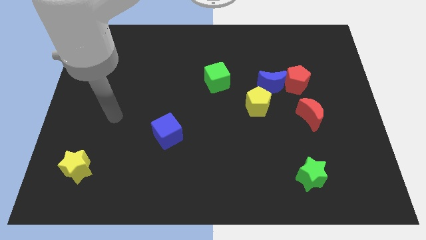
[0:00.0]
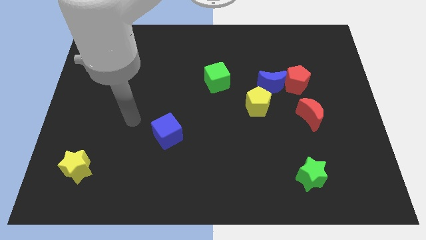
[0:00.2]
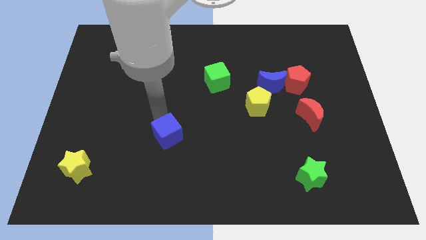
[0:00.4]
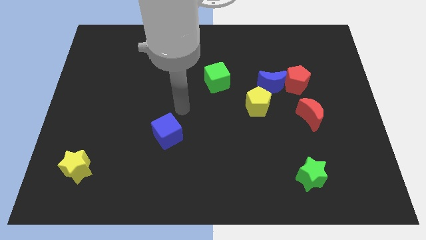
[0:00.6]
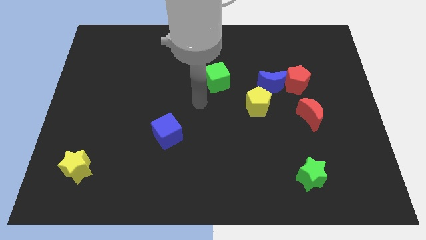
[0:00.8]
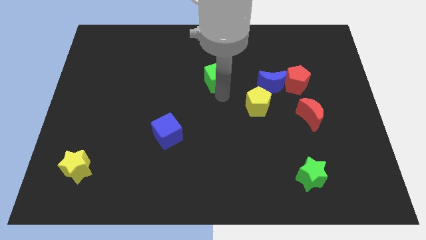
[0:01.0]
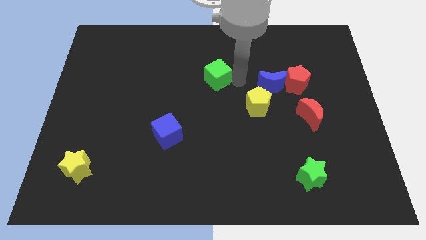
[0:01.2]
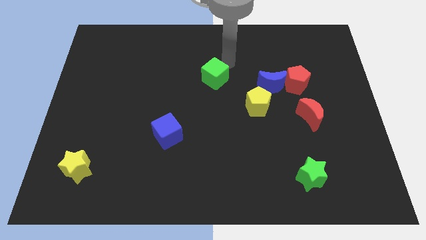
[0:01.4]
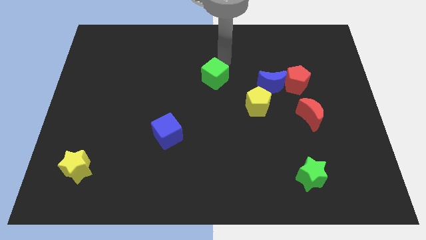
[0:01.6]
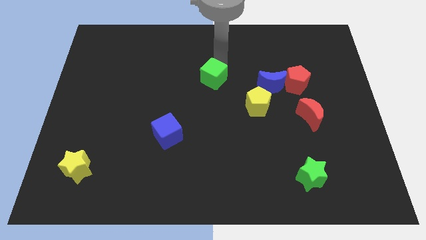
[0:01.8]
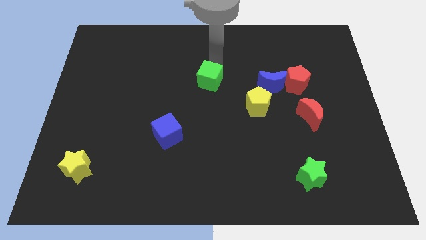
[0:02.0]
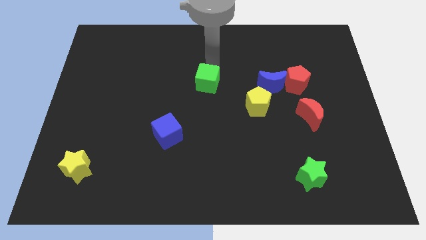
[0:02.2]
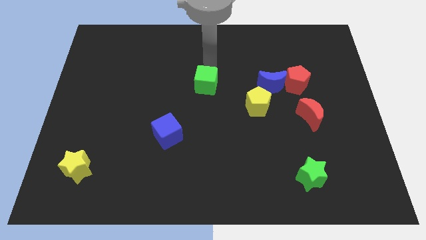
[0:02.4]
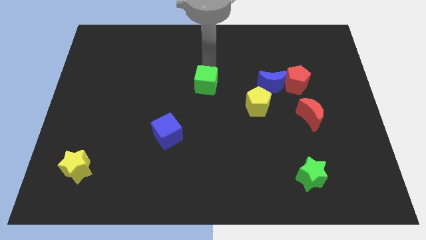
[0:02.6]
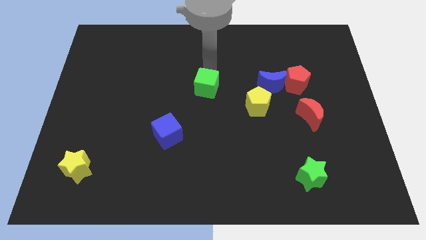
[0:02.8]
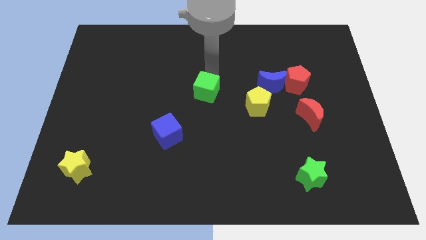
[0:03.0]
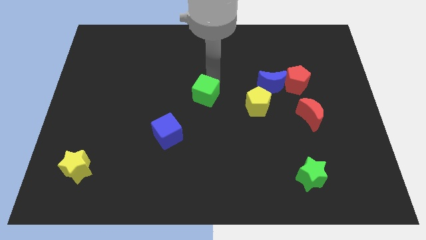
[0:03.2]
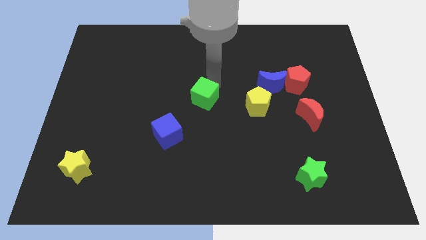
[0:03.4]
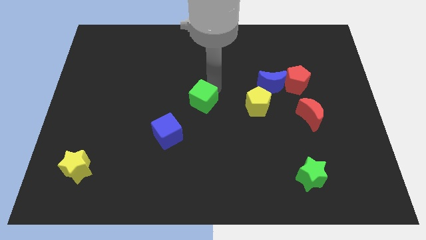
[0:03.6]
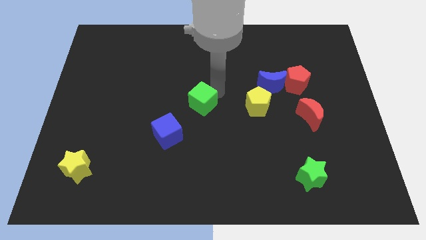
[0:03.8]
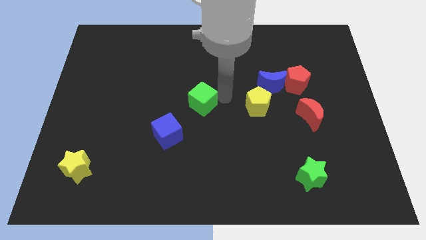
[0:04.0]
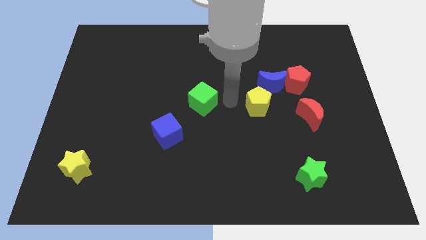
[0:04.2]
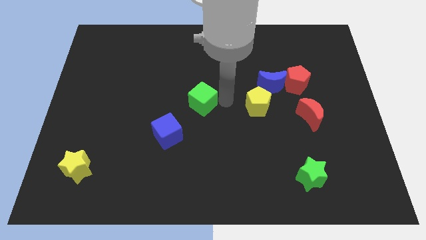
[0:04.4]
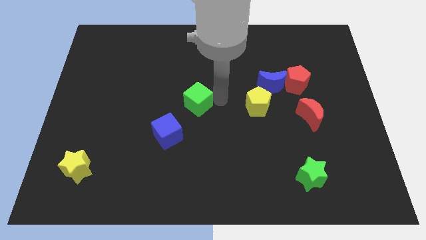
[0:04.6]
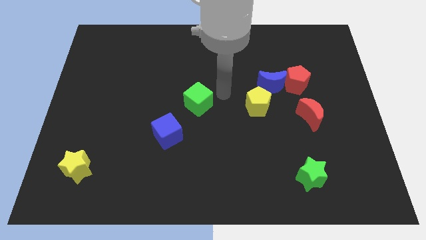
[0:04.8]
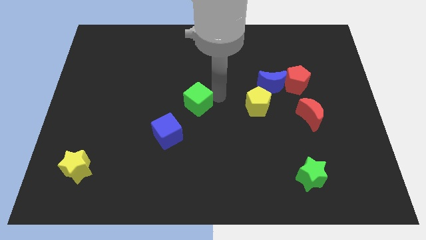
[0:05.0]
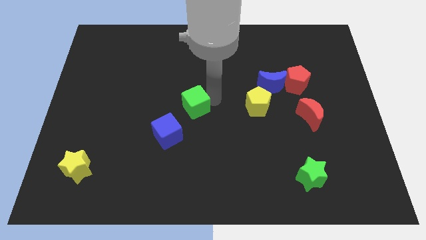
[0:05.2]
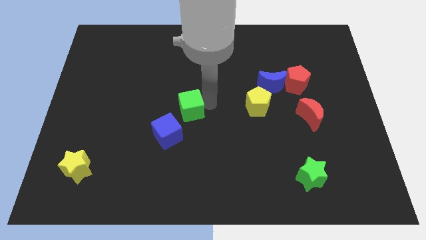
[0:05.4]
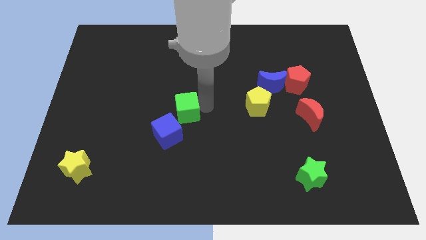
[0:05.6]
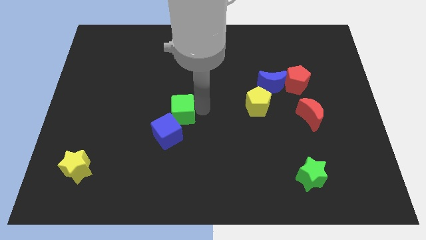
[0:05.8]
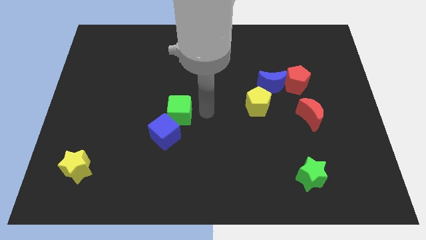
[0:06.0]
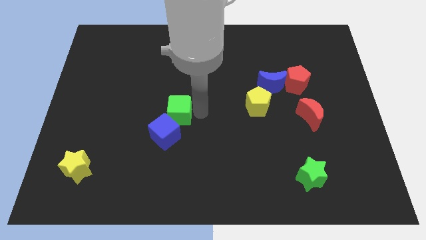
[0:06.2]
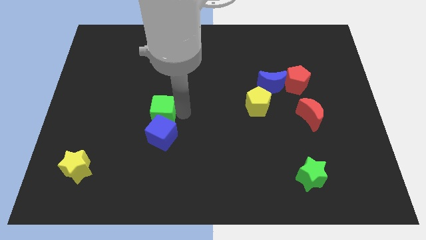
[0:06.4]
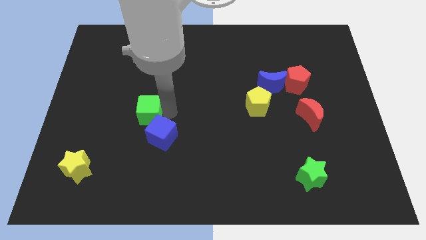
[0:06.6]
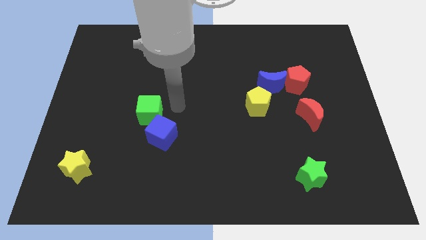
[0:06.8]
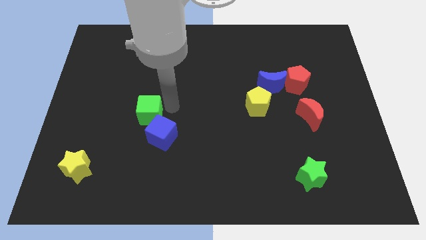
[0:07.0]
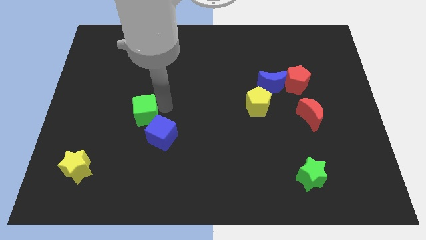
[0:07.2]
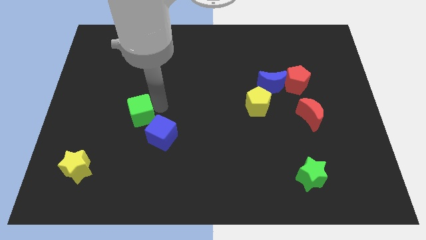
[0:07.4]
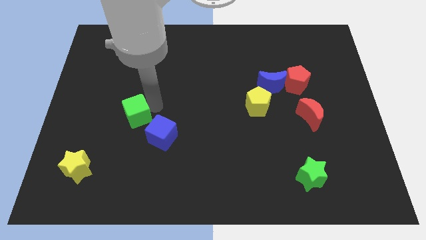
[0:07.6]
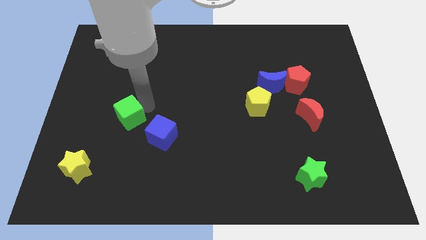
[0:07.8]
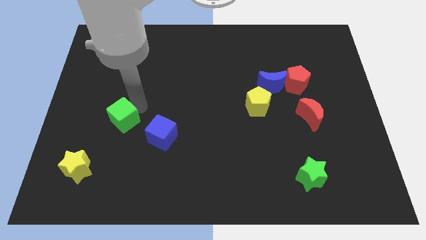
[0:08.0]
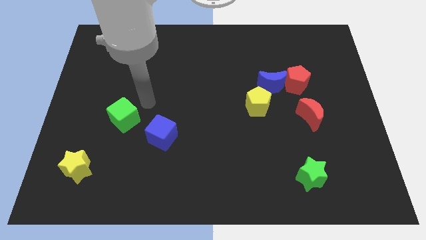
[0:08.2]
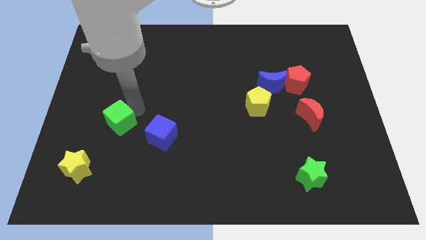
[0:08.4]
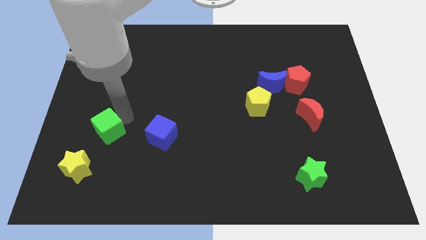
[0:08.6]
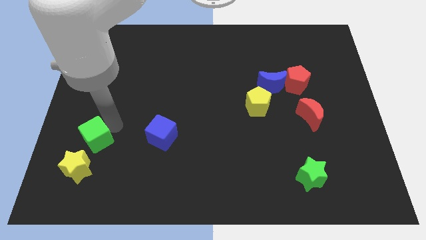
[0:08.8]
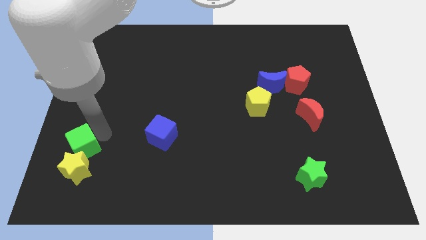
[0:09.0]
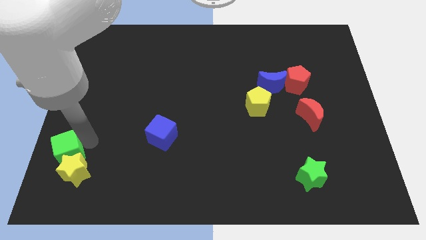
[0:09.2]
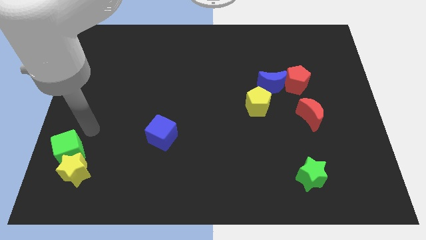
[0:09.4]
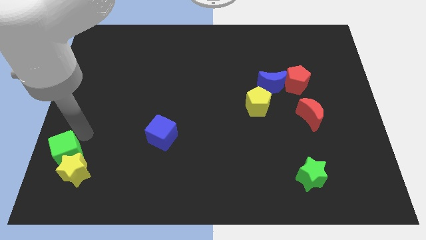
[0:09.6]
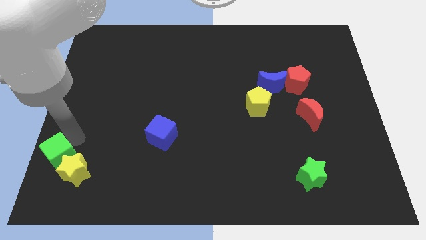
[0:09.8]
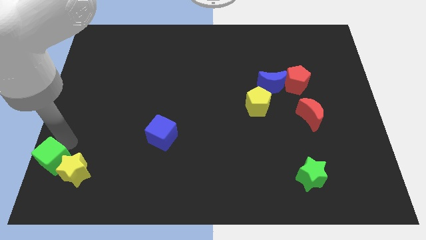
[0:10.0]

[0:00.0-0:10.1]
put the green cube to the bottom left

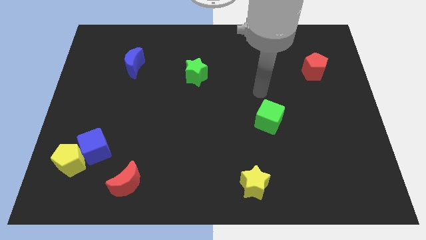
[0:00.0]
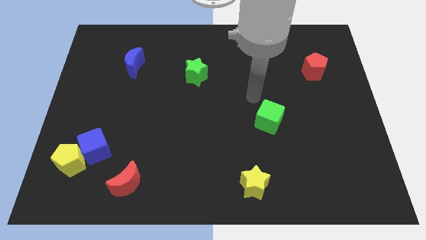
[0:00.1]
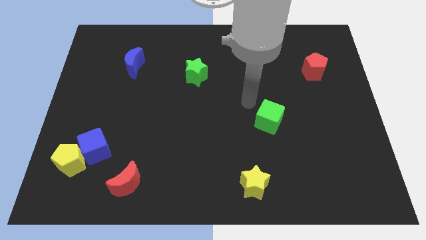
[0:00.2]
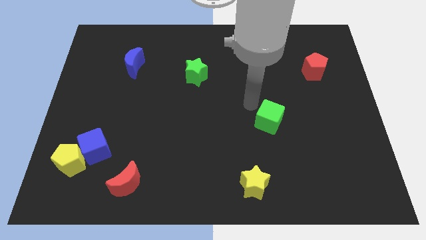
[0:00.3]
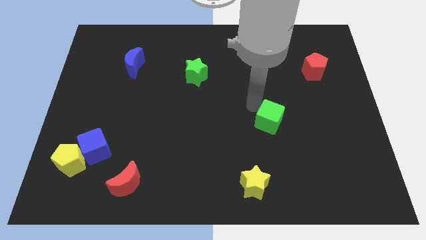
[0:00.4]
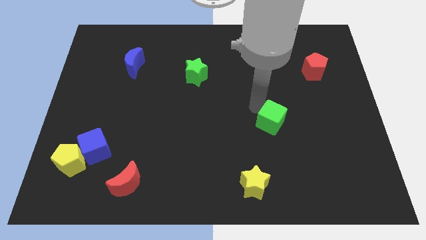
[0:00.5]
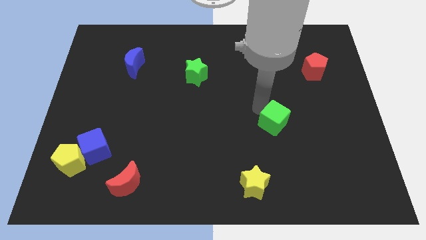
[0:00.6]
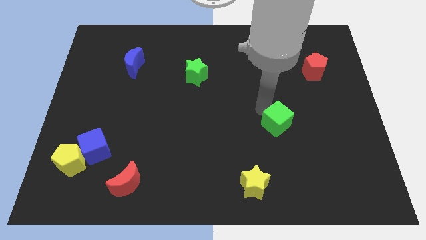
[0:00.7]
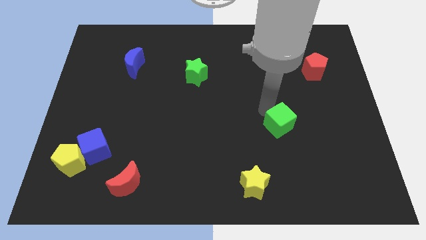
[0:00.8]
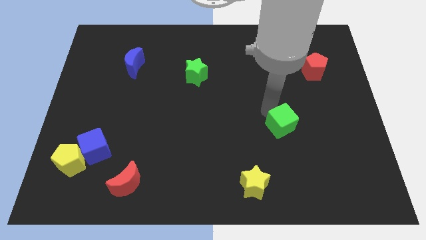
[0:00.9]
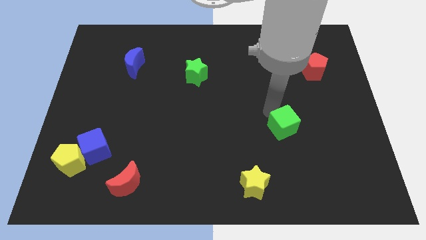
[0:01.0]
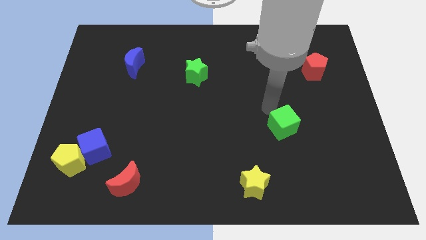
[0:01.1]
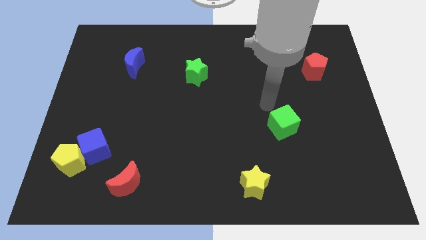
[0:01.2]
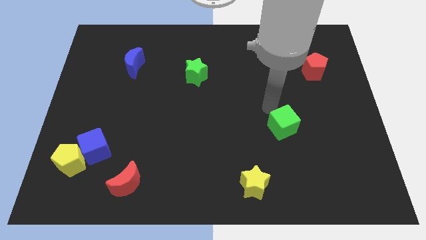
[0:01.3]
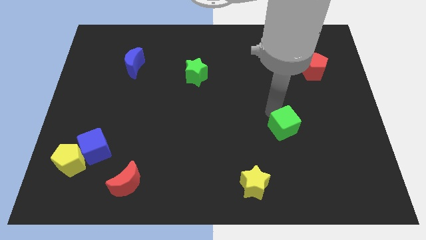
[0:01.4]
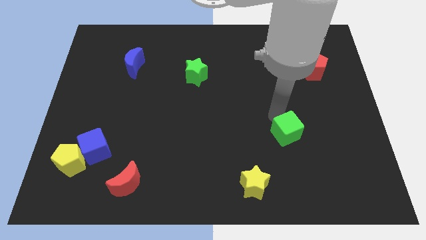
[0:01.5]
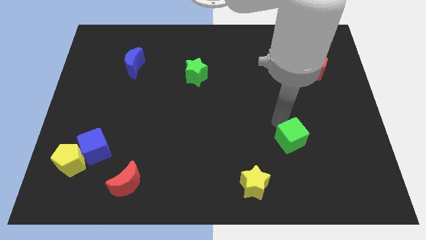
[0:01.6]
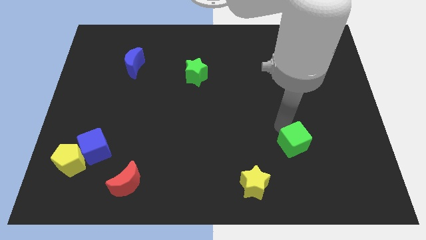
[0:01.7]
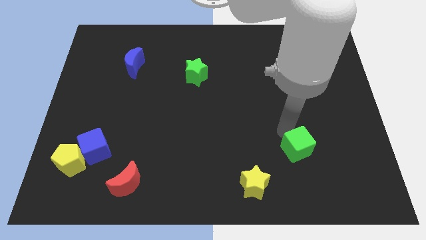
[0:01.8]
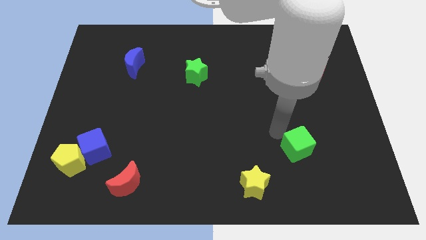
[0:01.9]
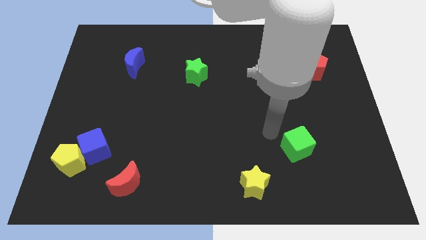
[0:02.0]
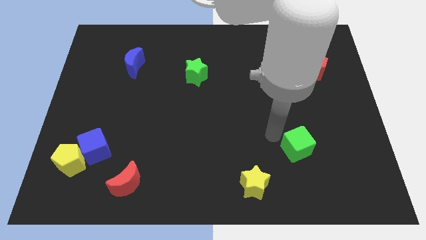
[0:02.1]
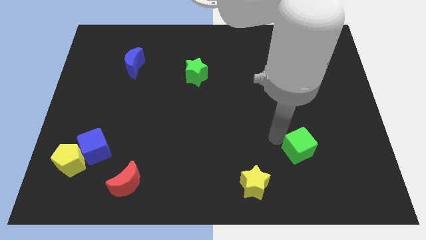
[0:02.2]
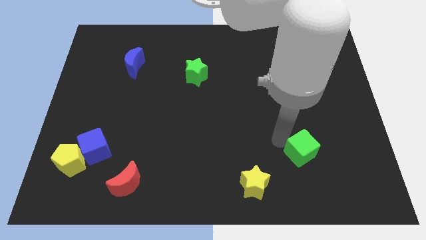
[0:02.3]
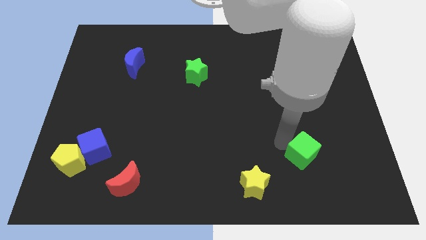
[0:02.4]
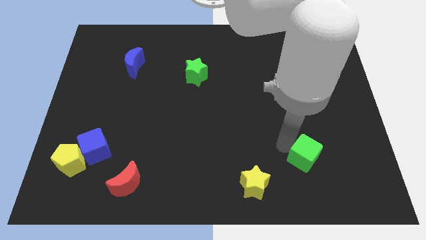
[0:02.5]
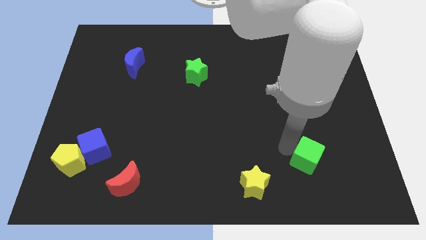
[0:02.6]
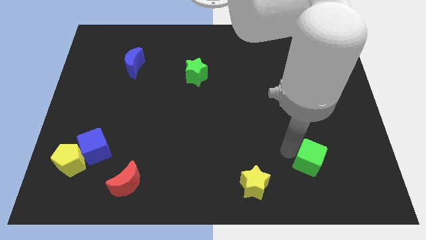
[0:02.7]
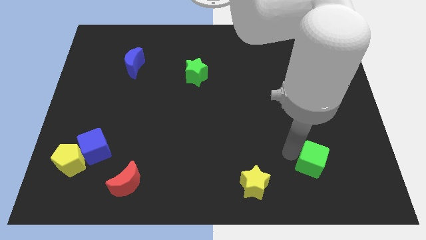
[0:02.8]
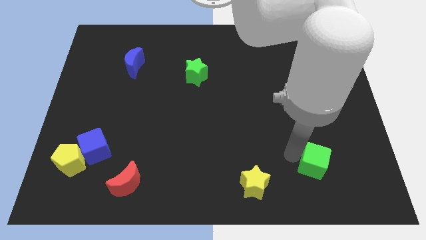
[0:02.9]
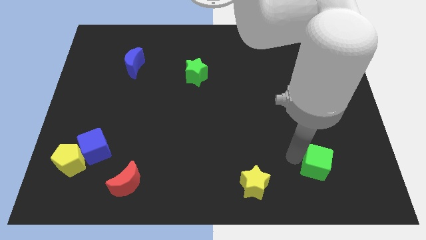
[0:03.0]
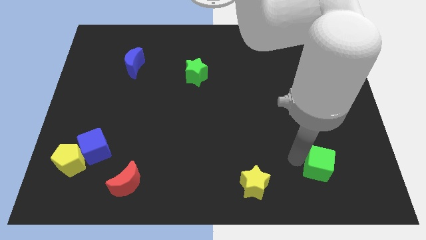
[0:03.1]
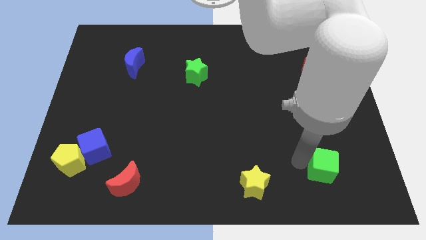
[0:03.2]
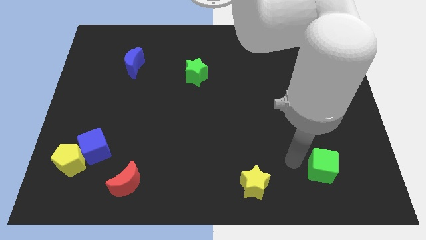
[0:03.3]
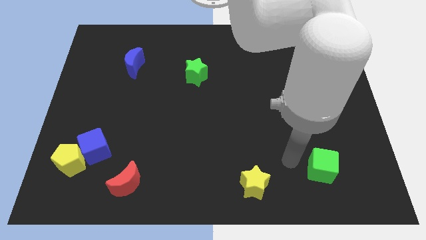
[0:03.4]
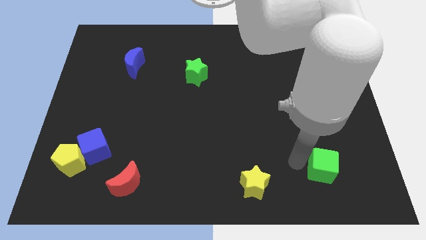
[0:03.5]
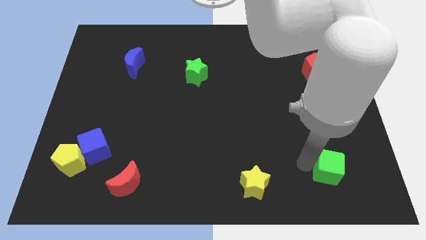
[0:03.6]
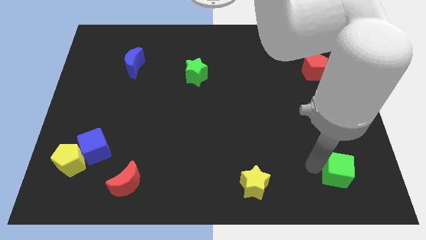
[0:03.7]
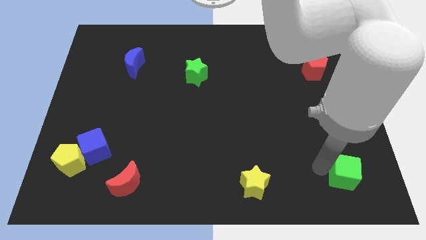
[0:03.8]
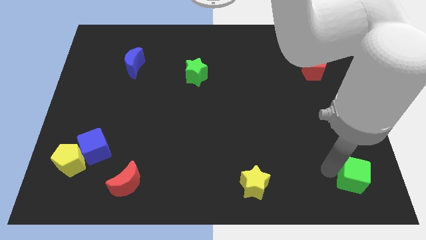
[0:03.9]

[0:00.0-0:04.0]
move the green cube to the bottom right
